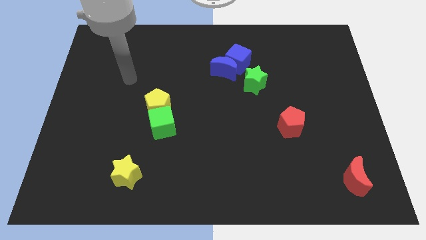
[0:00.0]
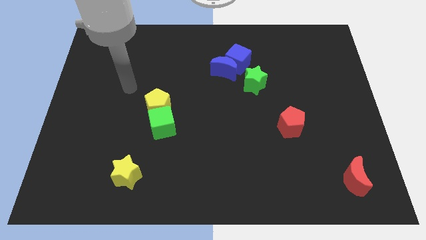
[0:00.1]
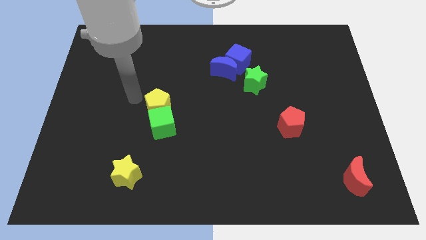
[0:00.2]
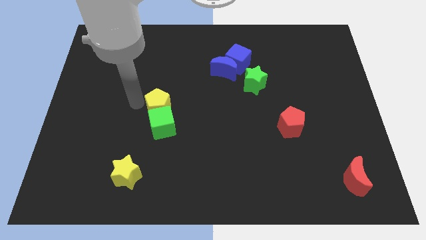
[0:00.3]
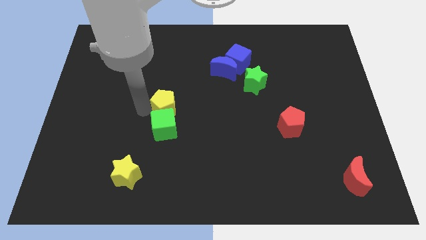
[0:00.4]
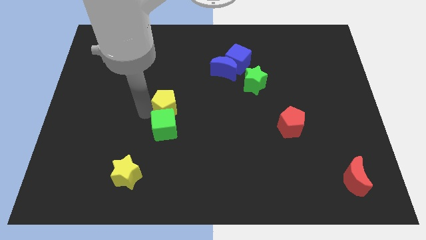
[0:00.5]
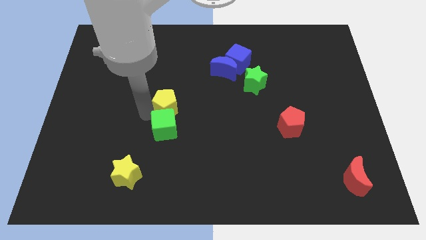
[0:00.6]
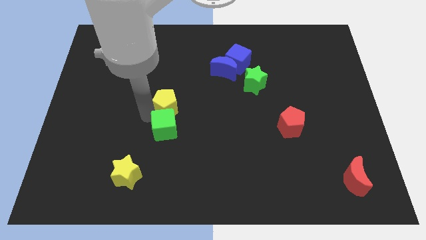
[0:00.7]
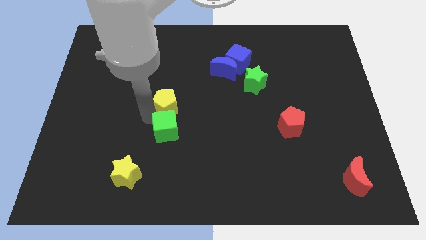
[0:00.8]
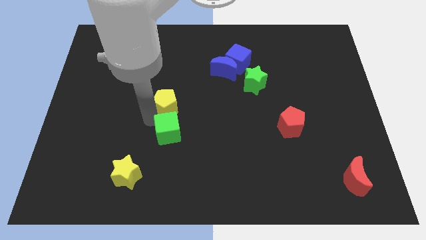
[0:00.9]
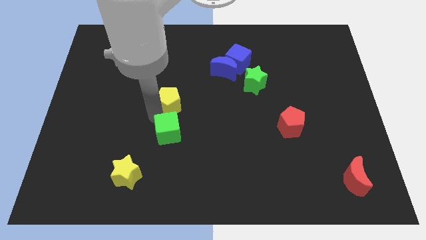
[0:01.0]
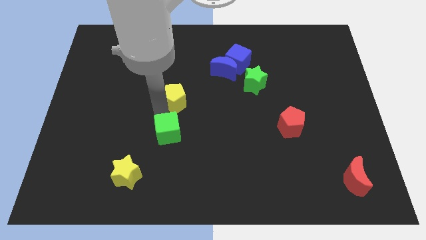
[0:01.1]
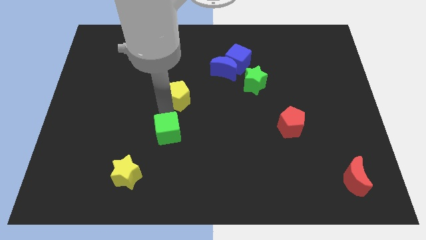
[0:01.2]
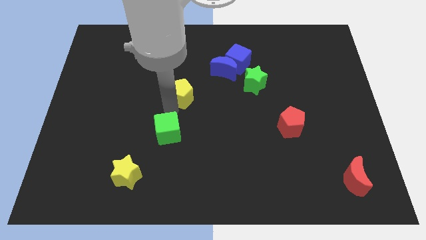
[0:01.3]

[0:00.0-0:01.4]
pull the green cube apart from the yellow pentagon

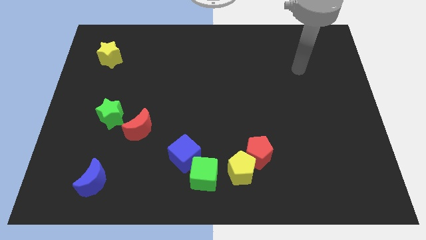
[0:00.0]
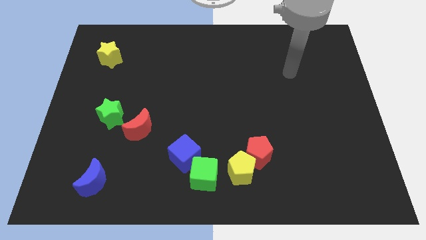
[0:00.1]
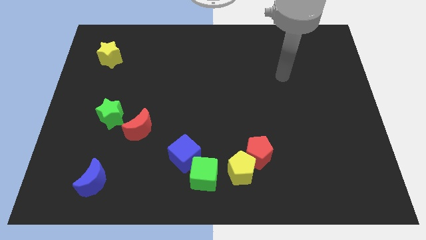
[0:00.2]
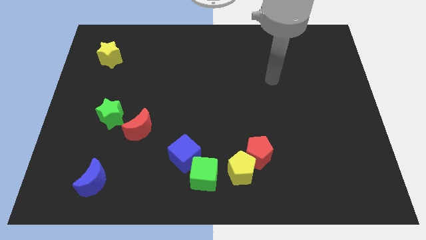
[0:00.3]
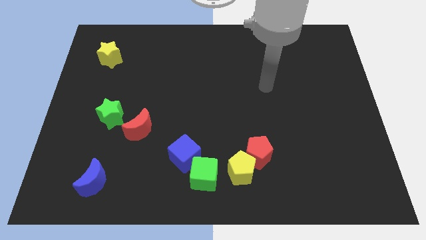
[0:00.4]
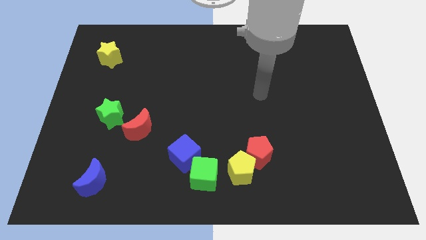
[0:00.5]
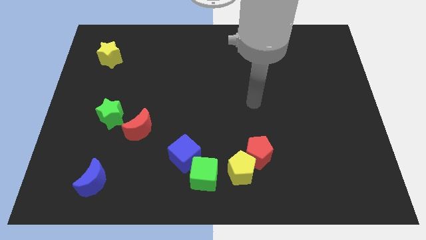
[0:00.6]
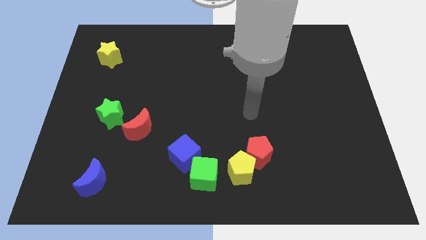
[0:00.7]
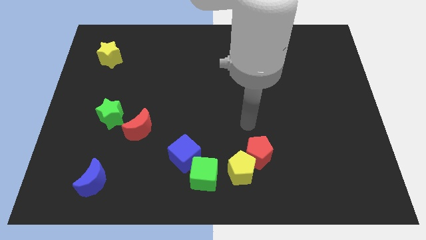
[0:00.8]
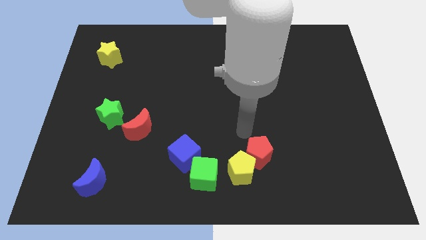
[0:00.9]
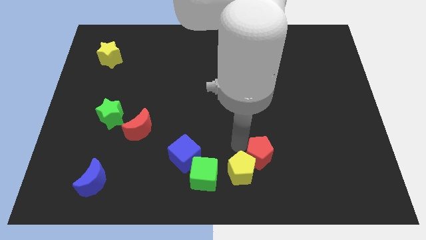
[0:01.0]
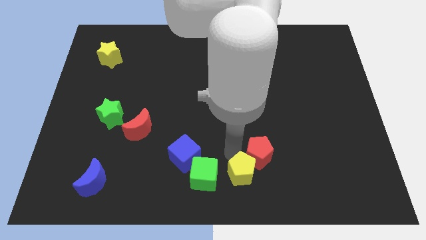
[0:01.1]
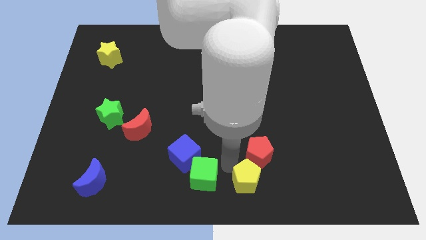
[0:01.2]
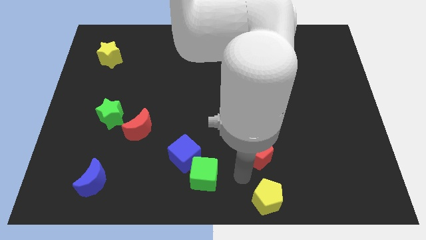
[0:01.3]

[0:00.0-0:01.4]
pull the red pentagon apart from the yellow pentagon

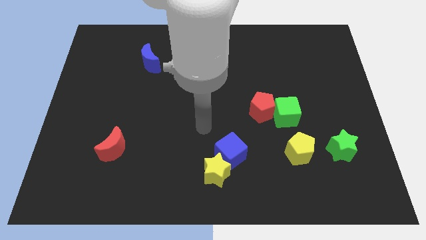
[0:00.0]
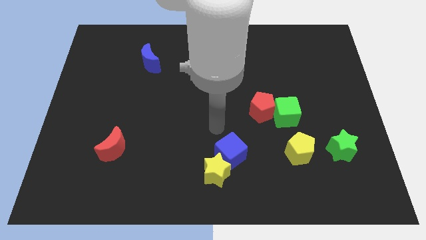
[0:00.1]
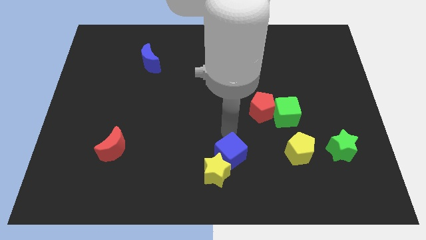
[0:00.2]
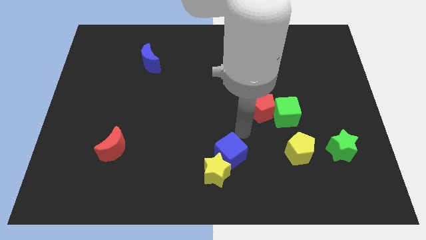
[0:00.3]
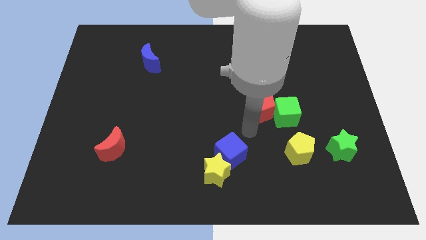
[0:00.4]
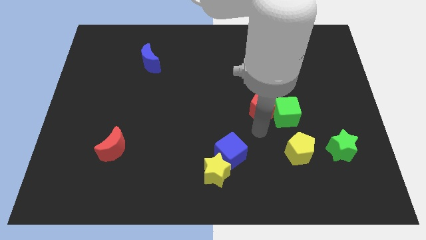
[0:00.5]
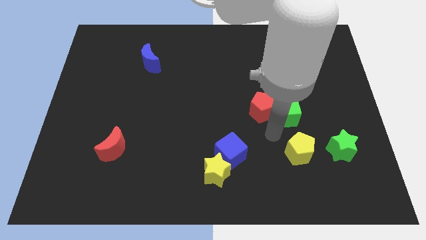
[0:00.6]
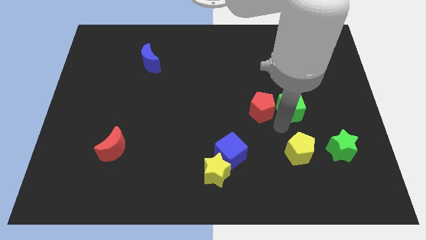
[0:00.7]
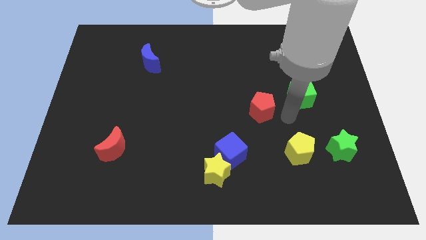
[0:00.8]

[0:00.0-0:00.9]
pull the red pentagon apart from the green cube

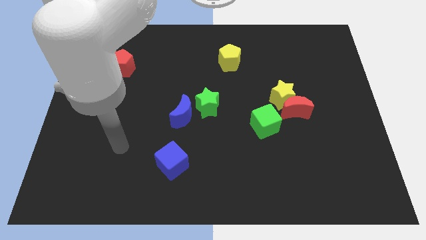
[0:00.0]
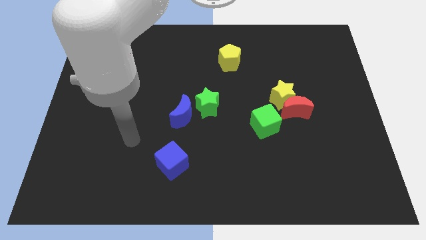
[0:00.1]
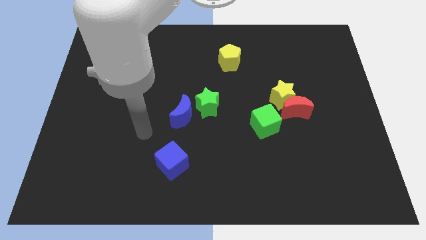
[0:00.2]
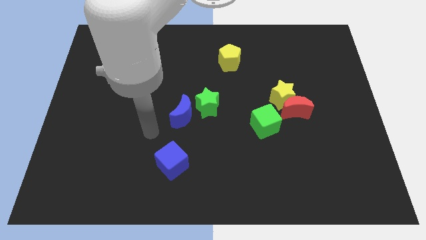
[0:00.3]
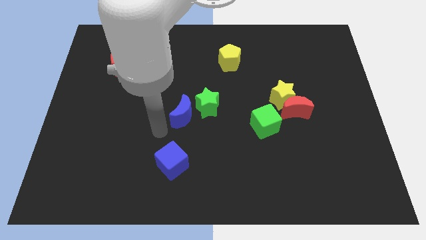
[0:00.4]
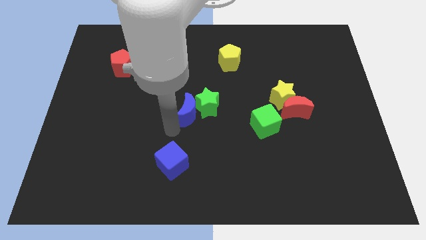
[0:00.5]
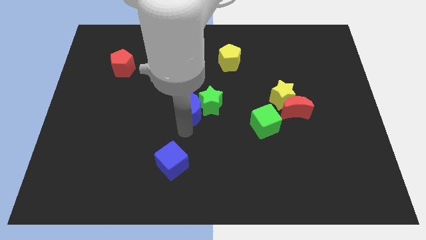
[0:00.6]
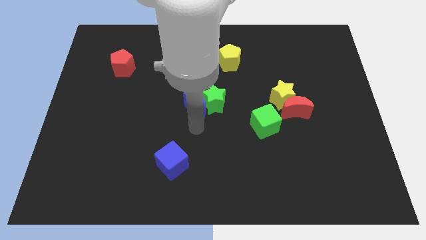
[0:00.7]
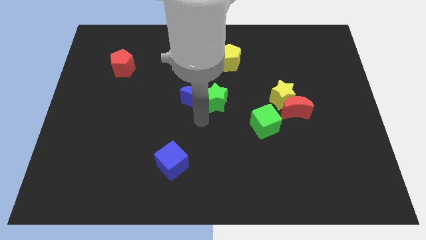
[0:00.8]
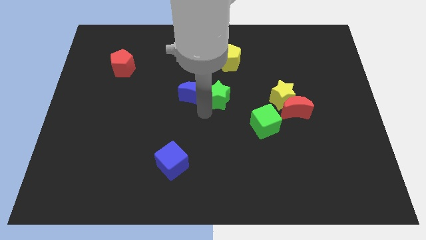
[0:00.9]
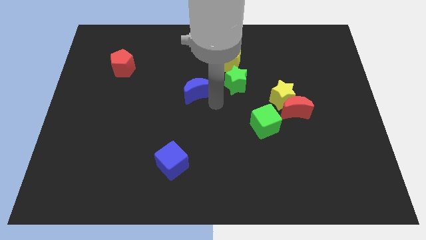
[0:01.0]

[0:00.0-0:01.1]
separate the blue moon from the green star

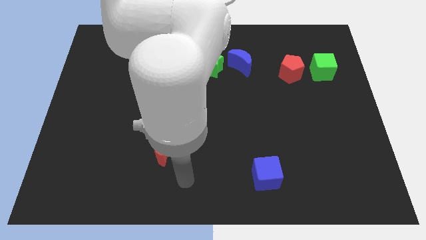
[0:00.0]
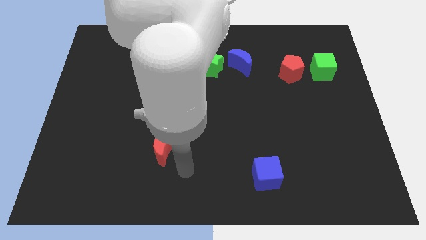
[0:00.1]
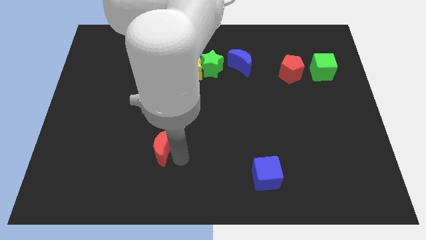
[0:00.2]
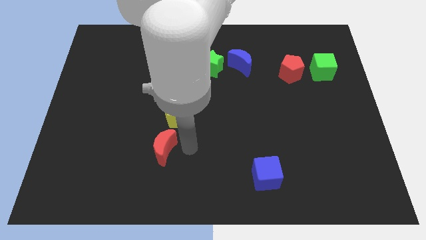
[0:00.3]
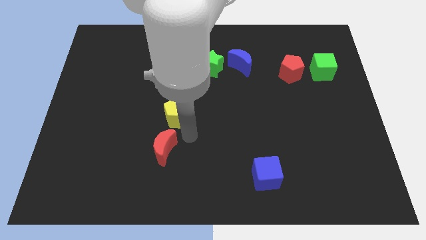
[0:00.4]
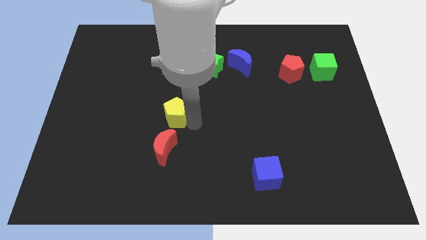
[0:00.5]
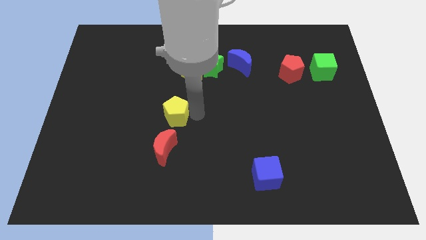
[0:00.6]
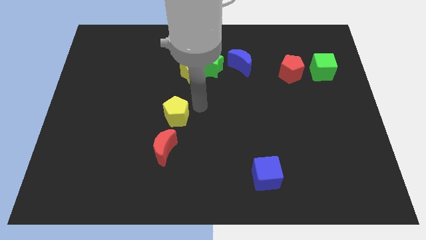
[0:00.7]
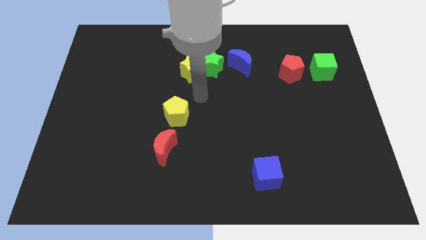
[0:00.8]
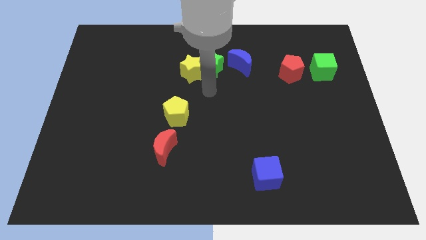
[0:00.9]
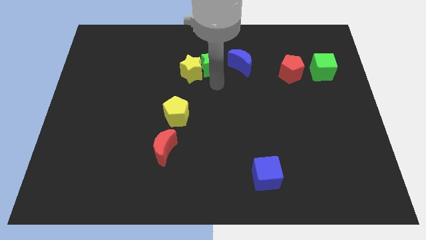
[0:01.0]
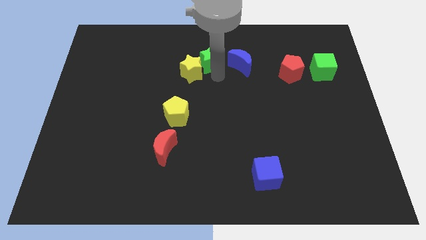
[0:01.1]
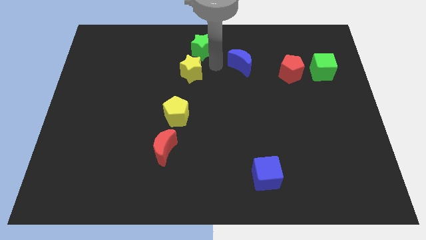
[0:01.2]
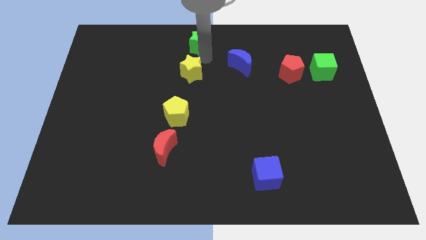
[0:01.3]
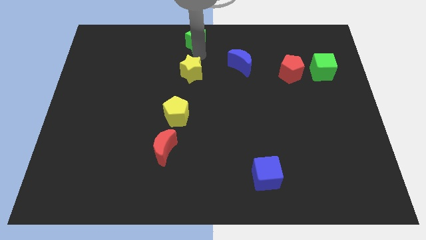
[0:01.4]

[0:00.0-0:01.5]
move the yellow star away from the green star

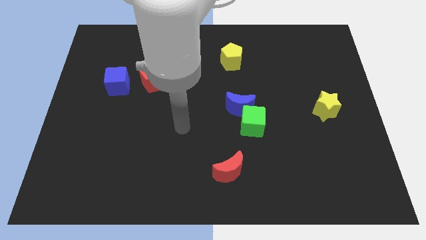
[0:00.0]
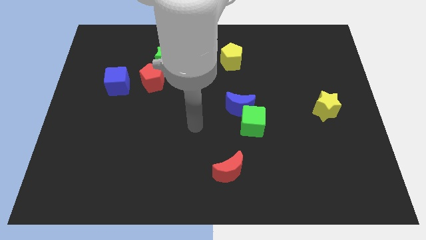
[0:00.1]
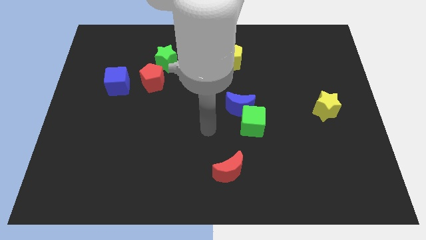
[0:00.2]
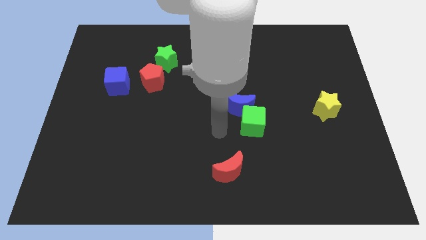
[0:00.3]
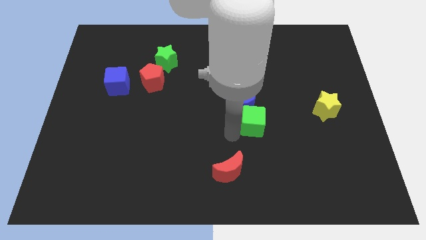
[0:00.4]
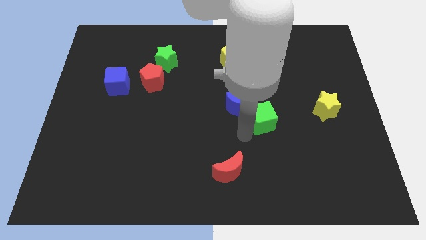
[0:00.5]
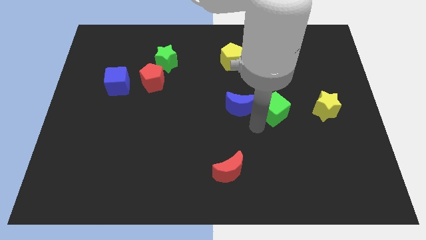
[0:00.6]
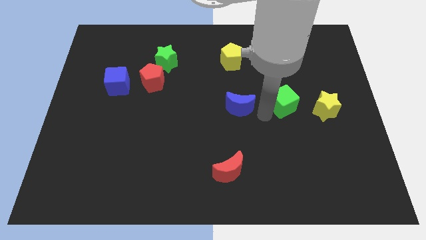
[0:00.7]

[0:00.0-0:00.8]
move the blue moon away from the green cube

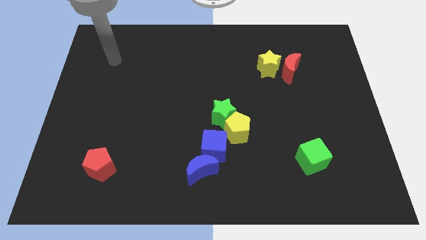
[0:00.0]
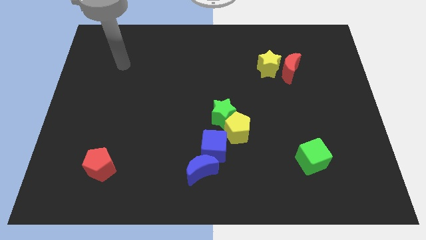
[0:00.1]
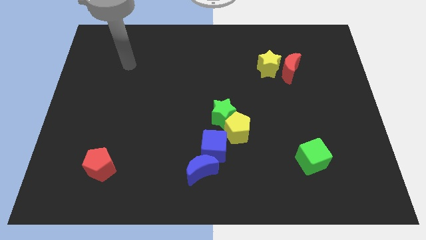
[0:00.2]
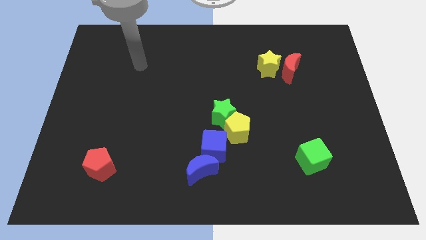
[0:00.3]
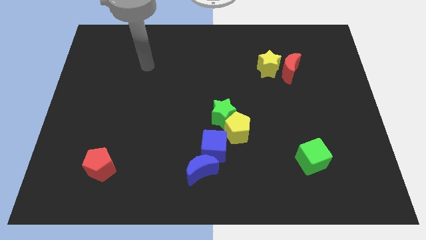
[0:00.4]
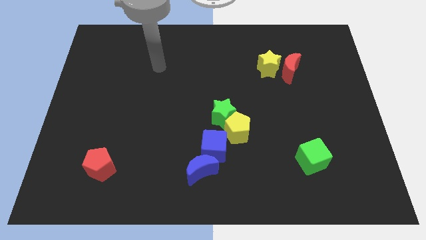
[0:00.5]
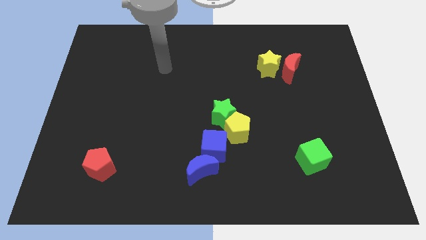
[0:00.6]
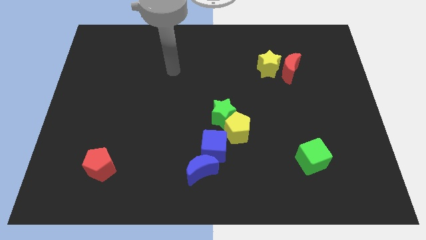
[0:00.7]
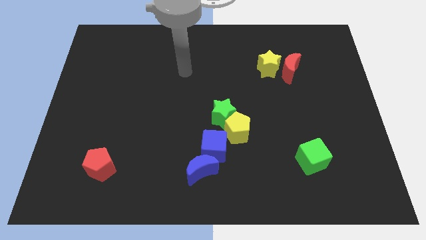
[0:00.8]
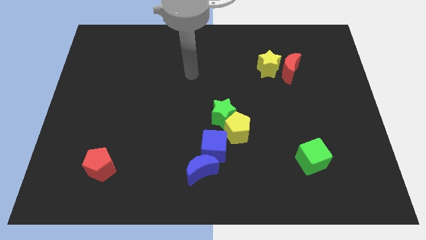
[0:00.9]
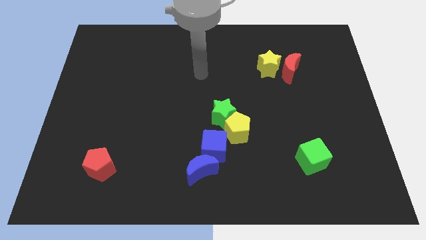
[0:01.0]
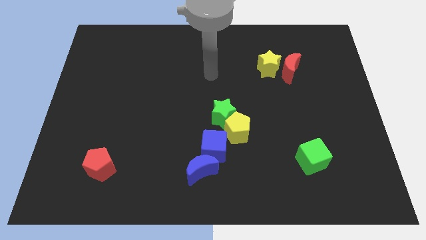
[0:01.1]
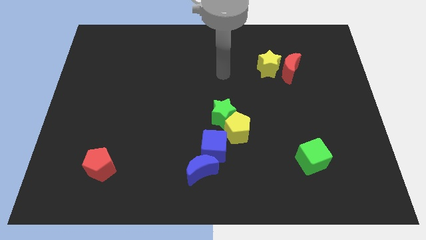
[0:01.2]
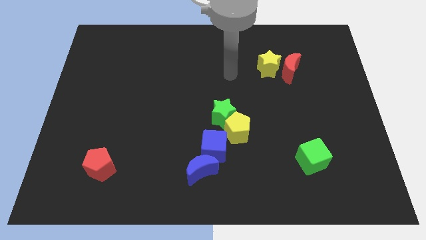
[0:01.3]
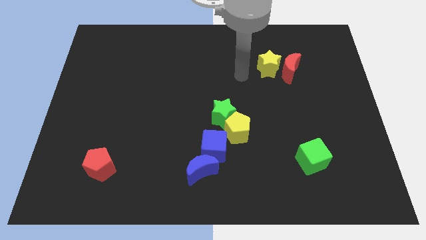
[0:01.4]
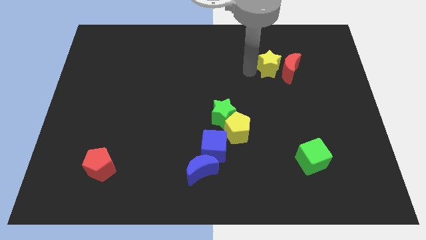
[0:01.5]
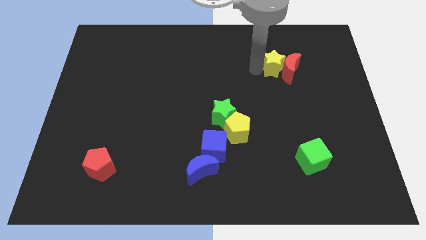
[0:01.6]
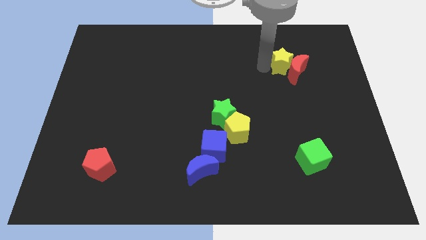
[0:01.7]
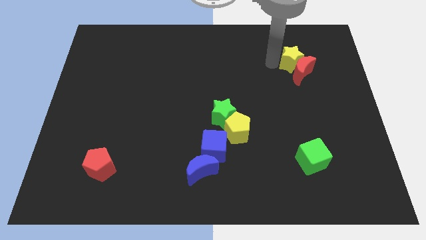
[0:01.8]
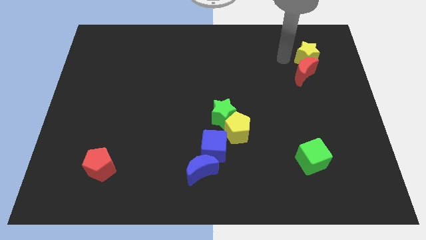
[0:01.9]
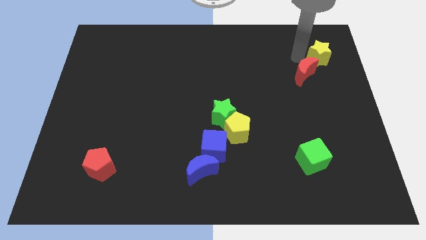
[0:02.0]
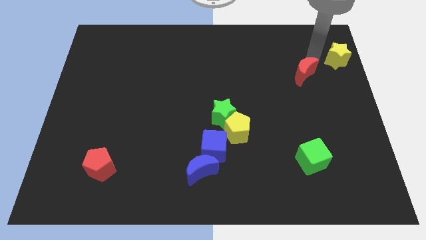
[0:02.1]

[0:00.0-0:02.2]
pull the red moon apart from the yellow star

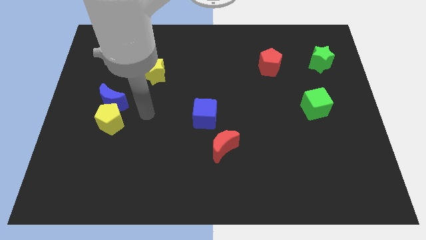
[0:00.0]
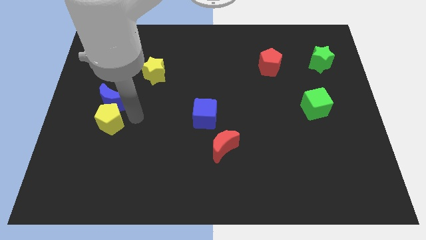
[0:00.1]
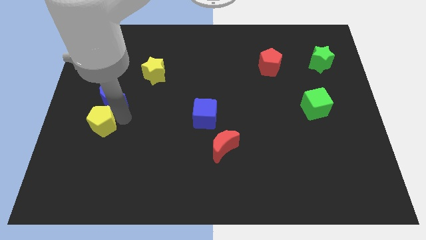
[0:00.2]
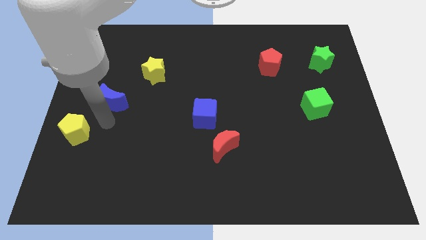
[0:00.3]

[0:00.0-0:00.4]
separate the blue moon from the yellow pentagon
